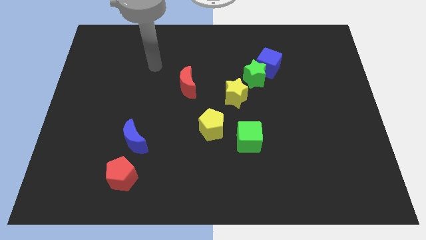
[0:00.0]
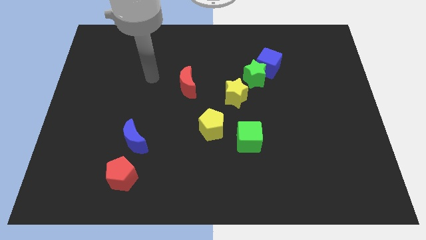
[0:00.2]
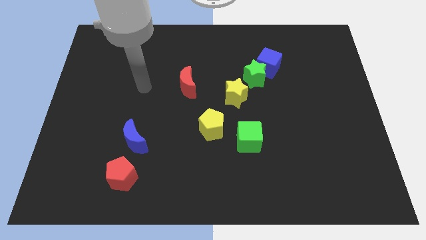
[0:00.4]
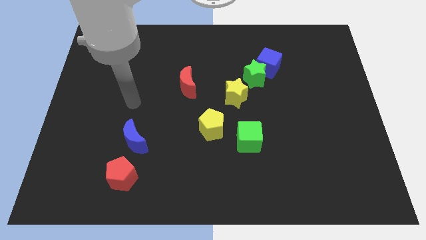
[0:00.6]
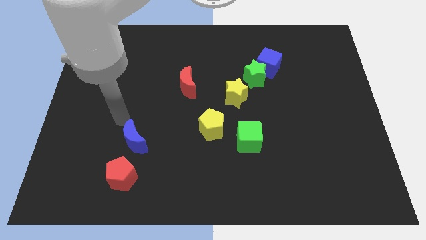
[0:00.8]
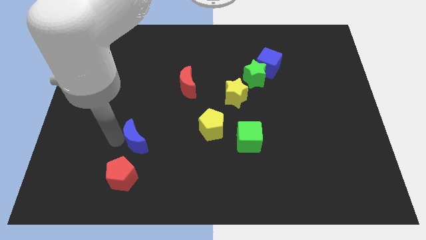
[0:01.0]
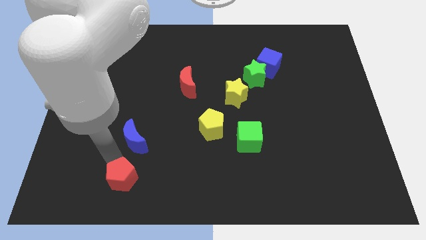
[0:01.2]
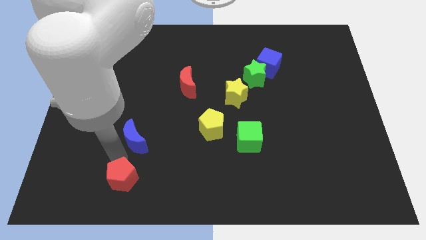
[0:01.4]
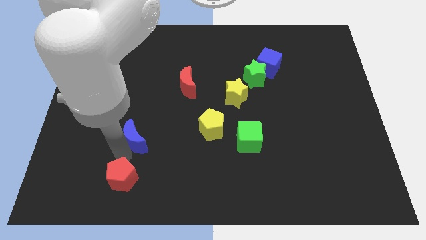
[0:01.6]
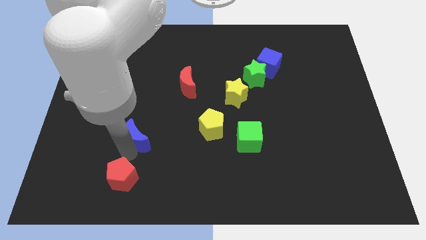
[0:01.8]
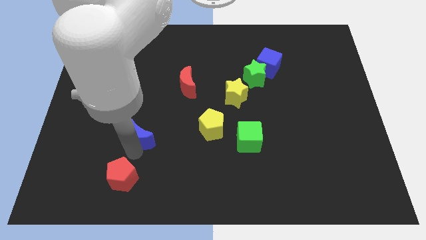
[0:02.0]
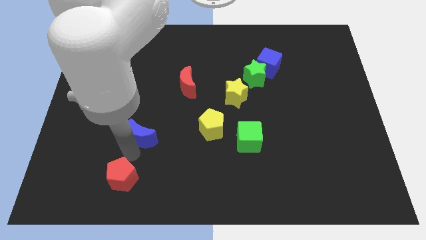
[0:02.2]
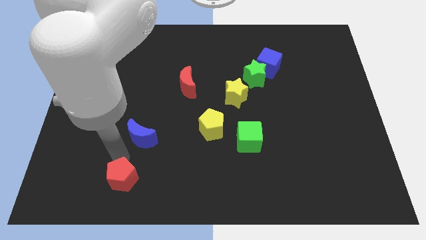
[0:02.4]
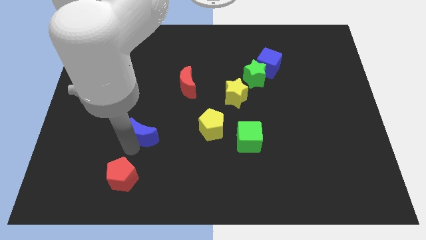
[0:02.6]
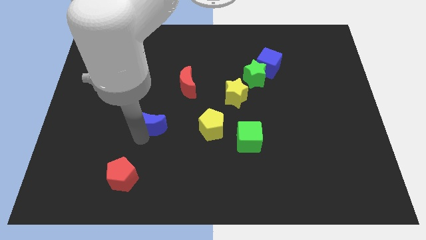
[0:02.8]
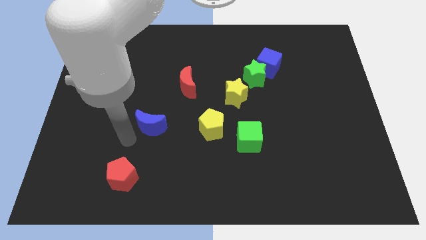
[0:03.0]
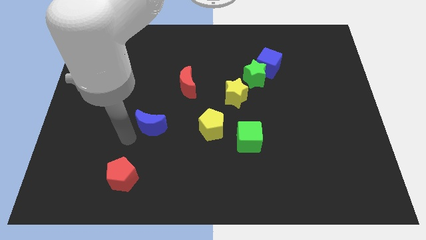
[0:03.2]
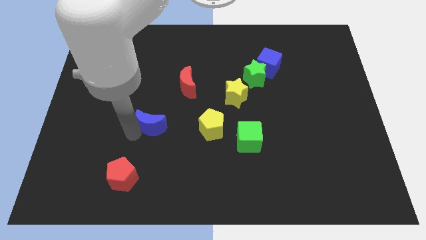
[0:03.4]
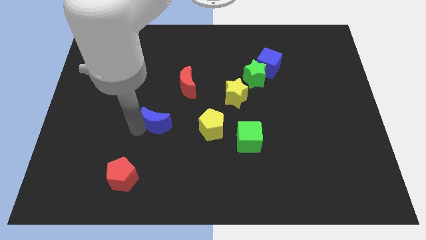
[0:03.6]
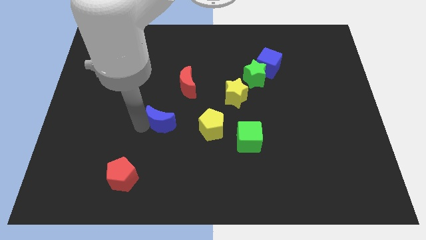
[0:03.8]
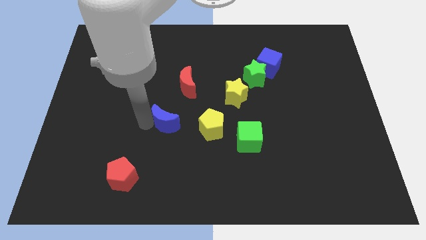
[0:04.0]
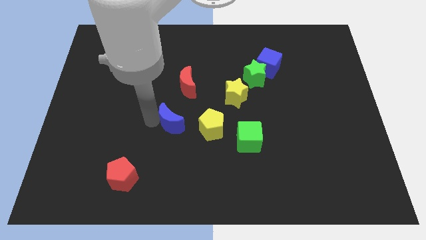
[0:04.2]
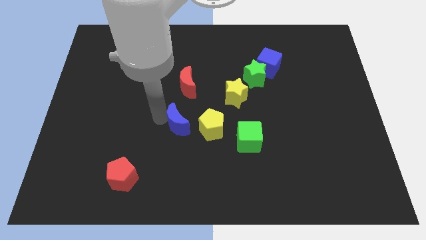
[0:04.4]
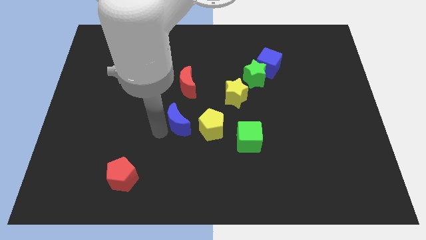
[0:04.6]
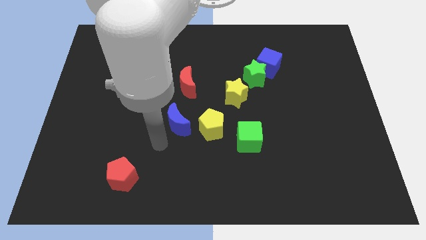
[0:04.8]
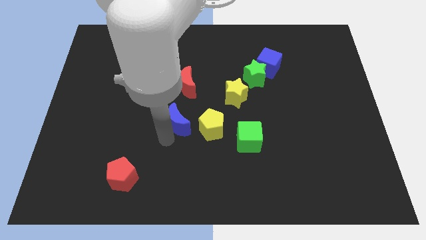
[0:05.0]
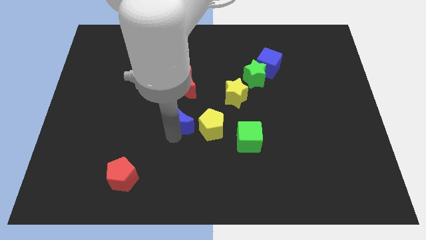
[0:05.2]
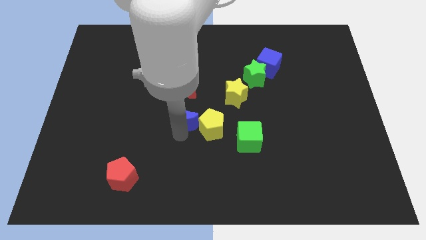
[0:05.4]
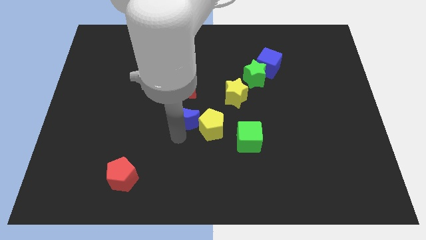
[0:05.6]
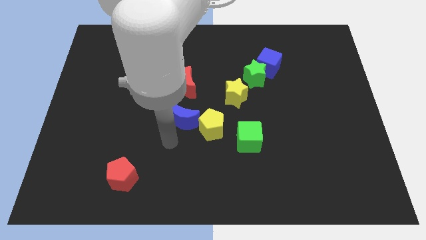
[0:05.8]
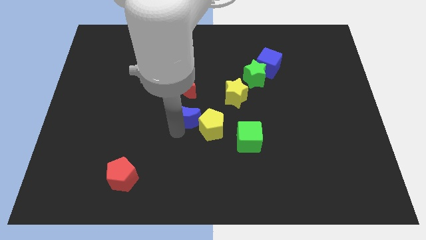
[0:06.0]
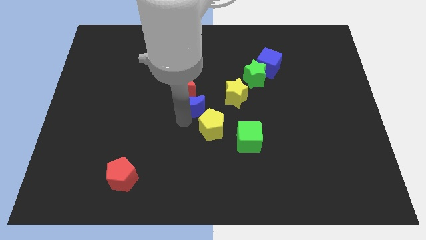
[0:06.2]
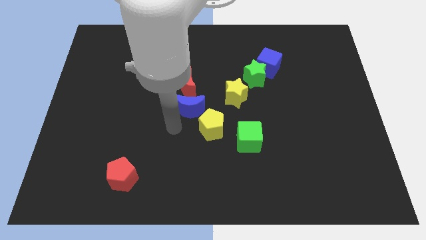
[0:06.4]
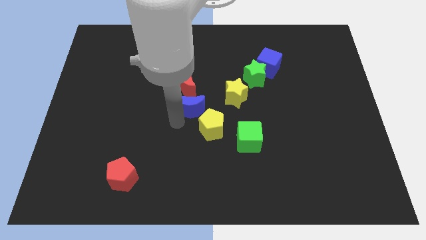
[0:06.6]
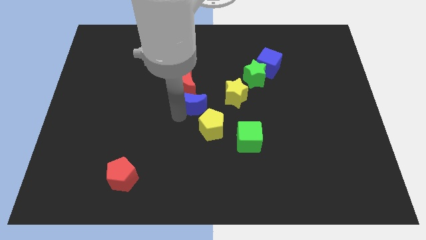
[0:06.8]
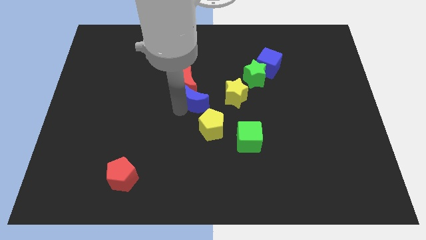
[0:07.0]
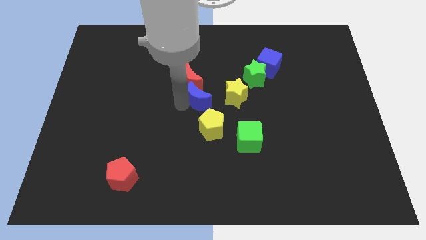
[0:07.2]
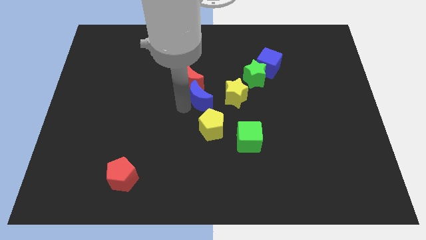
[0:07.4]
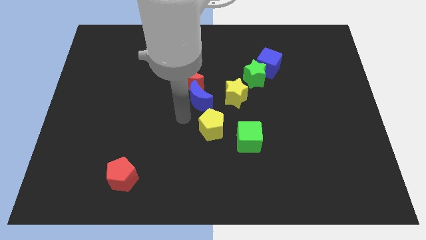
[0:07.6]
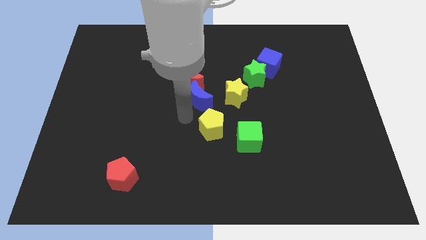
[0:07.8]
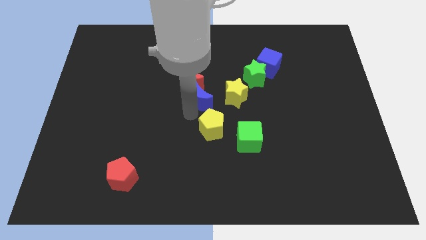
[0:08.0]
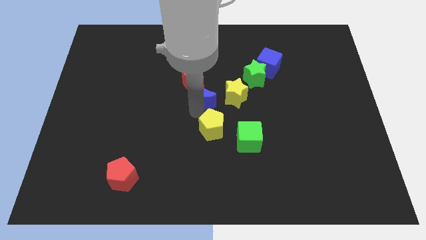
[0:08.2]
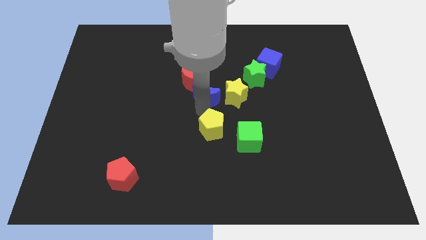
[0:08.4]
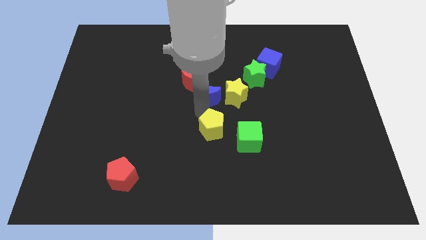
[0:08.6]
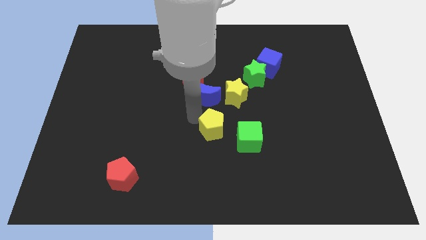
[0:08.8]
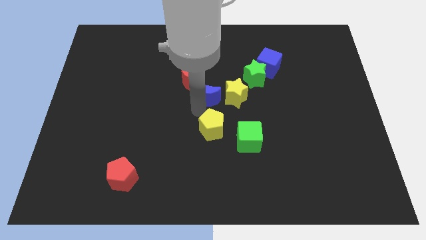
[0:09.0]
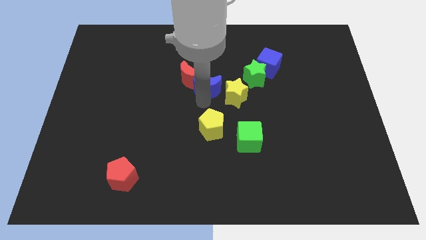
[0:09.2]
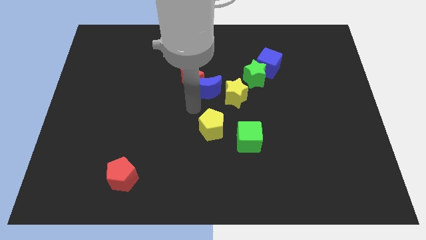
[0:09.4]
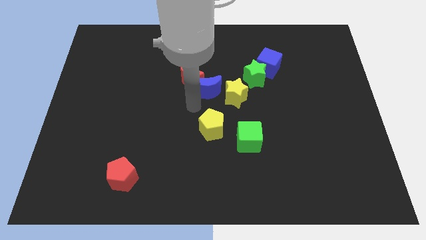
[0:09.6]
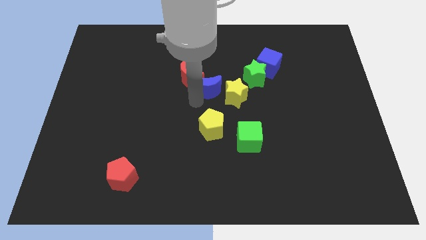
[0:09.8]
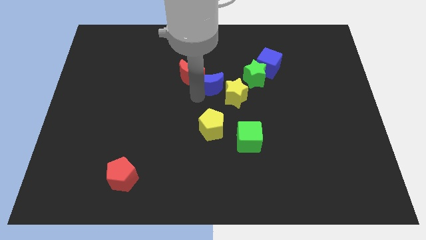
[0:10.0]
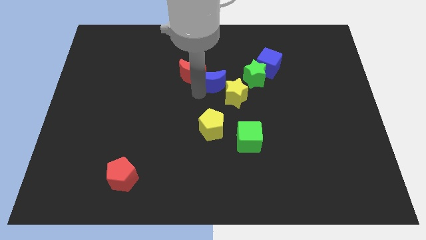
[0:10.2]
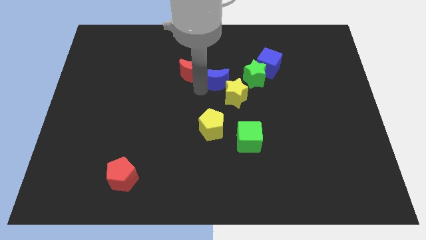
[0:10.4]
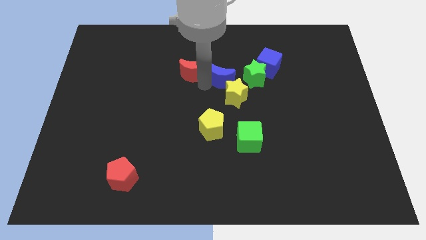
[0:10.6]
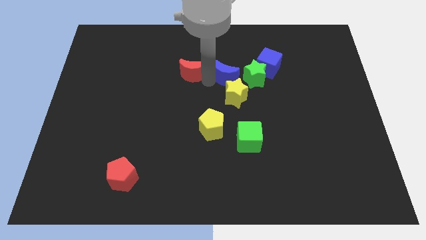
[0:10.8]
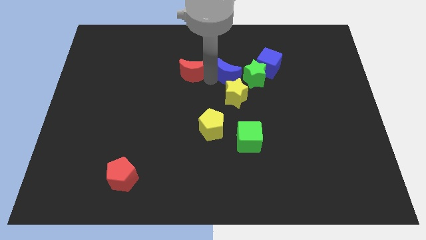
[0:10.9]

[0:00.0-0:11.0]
put the blue moon to the top left of the green star

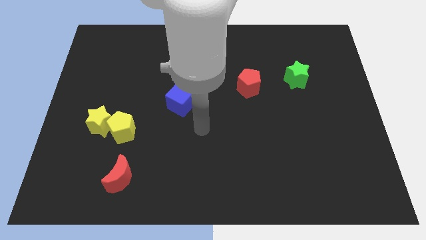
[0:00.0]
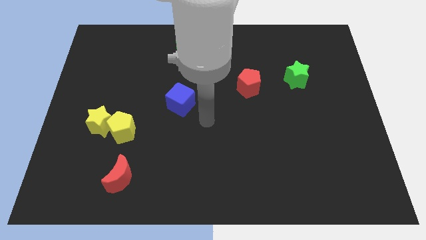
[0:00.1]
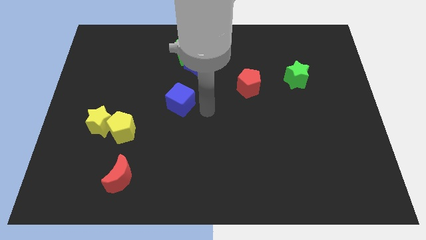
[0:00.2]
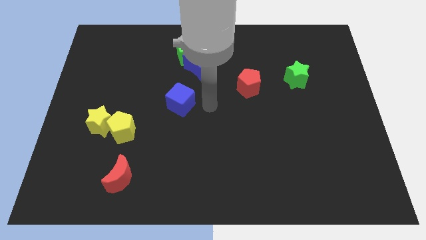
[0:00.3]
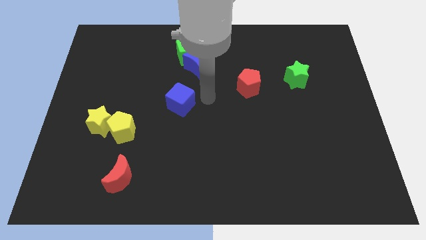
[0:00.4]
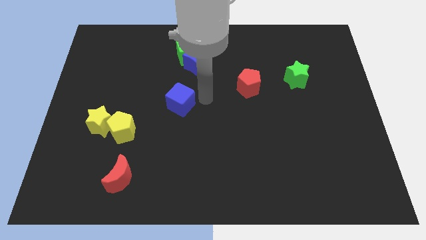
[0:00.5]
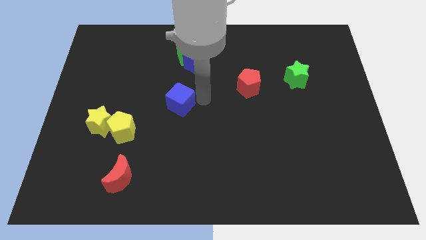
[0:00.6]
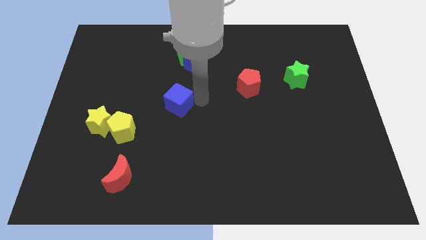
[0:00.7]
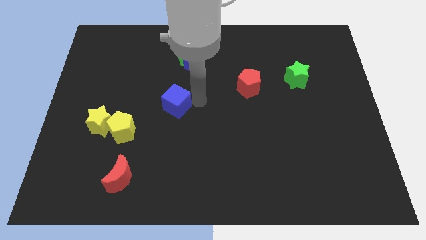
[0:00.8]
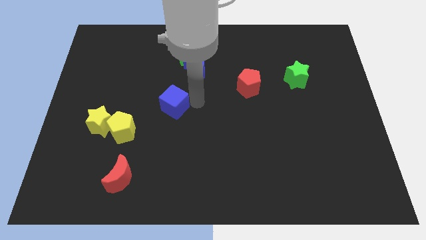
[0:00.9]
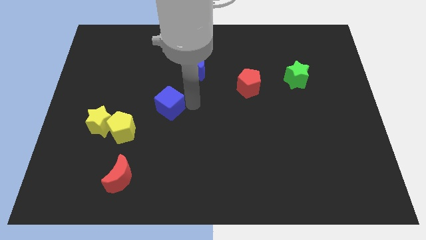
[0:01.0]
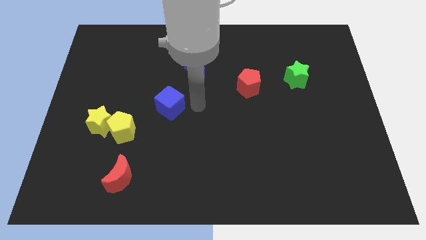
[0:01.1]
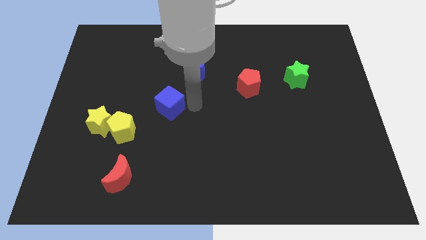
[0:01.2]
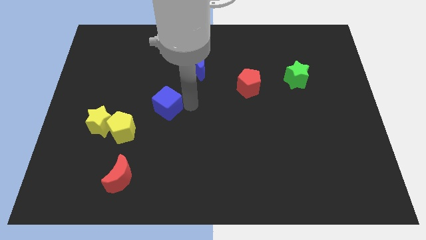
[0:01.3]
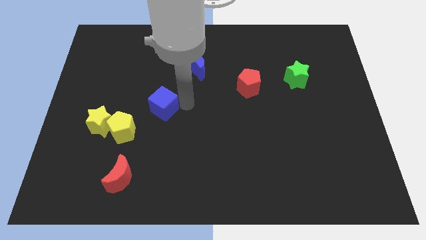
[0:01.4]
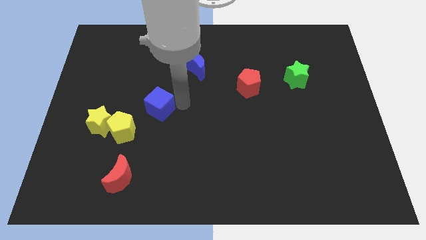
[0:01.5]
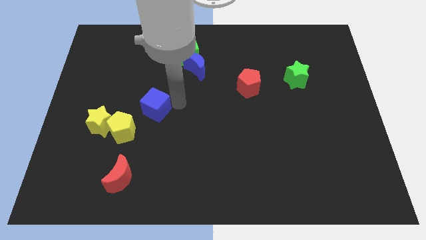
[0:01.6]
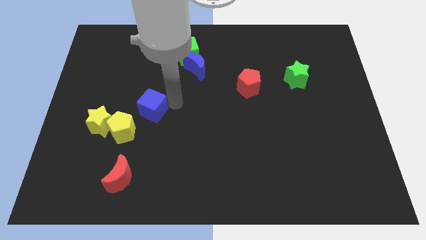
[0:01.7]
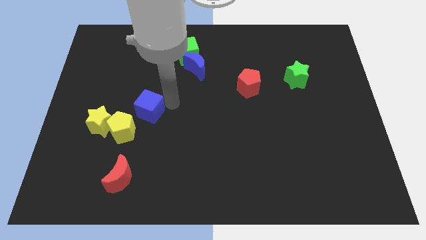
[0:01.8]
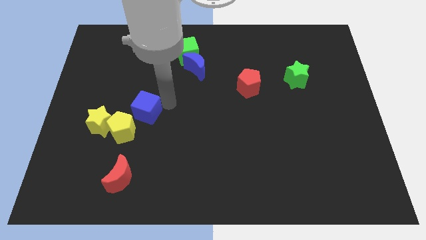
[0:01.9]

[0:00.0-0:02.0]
push the blue cube to the top right side of the yellow star

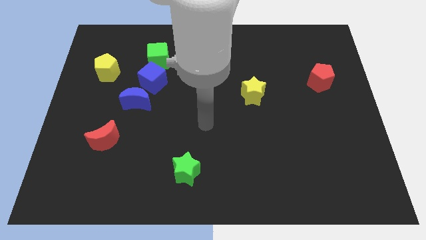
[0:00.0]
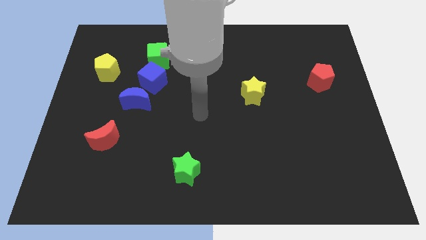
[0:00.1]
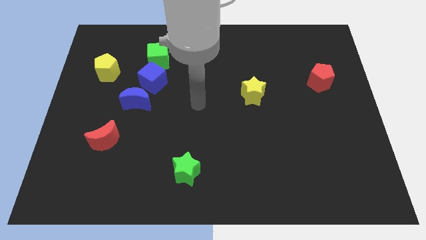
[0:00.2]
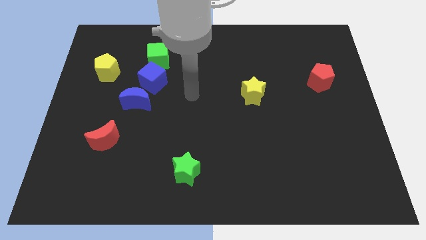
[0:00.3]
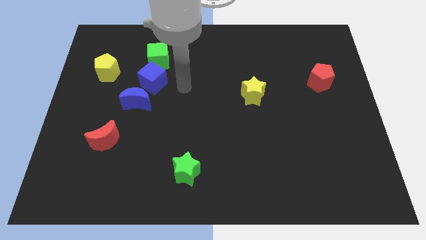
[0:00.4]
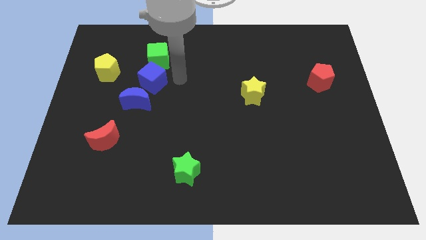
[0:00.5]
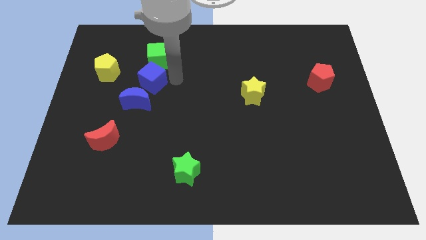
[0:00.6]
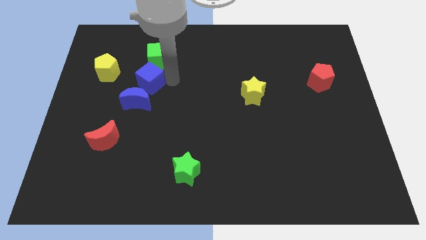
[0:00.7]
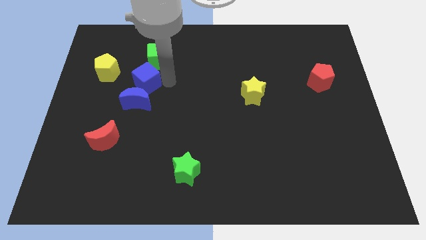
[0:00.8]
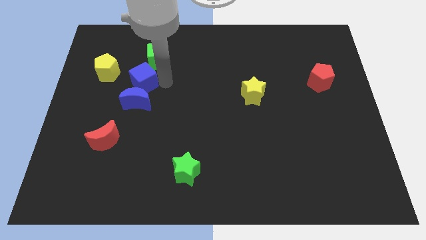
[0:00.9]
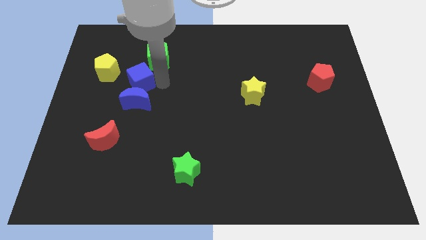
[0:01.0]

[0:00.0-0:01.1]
put the blue cube to the top left side of the blue moon
